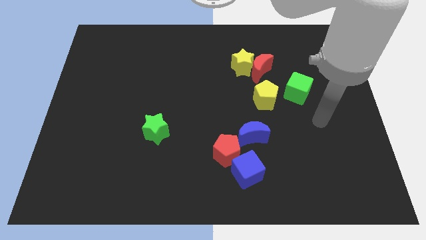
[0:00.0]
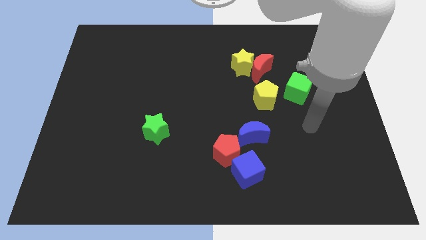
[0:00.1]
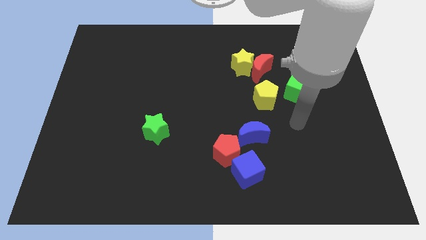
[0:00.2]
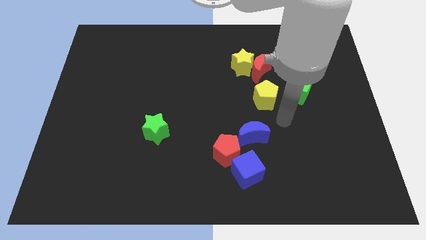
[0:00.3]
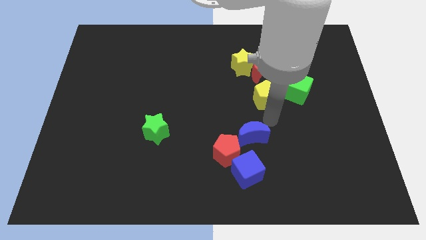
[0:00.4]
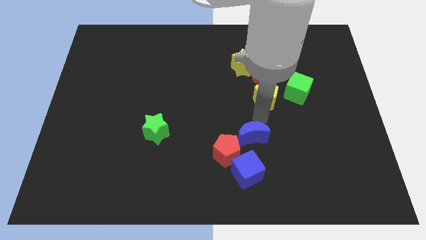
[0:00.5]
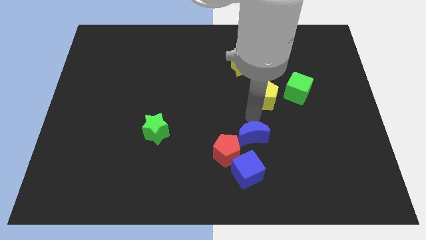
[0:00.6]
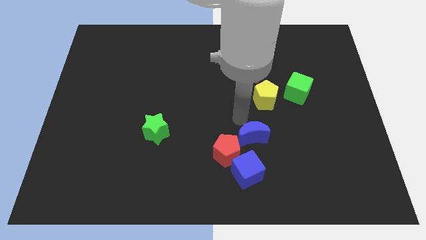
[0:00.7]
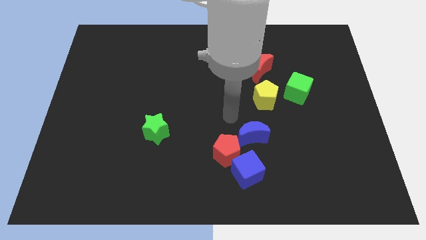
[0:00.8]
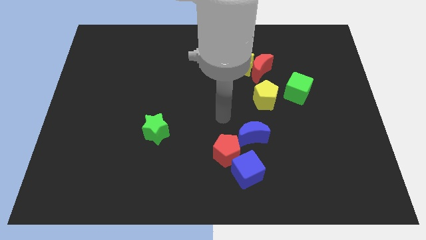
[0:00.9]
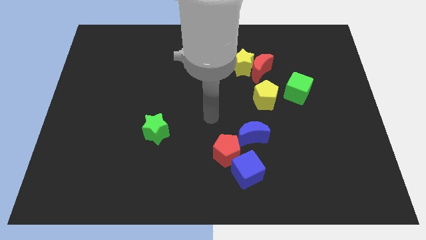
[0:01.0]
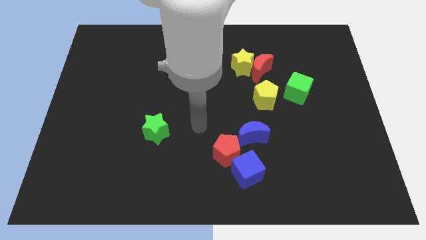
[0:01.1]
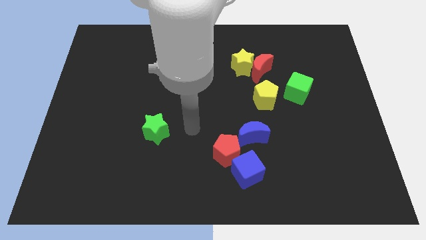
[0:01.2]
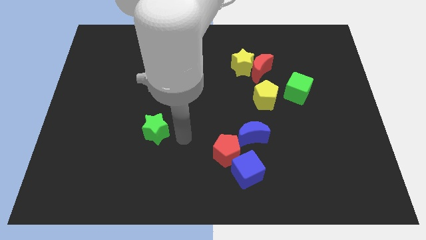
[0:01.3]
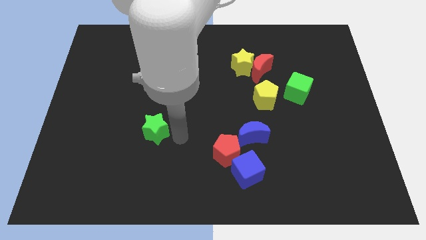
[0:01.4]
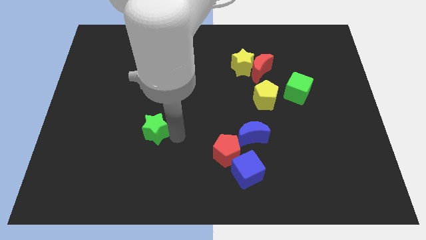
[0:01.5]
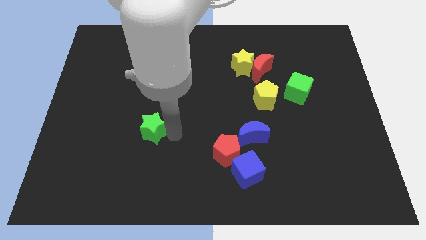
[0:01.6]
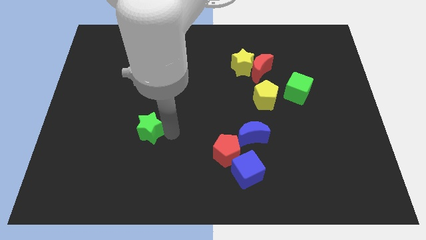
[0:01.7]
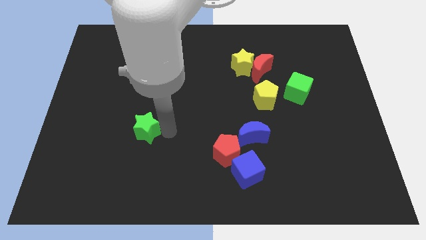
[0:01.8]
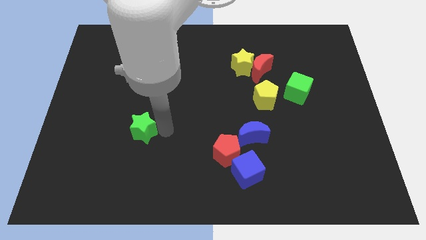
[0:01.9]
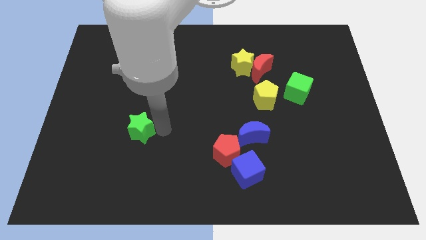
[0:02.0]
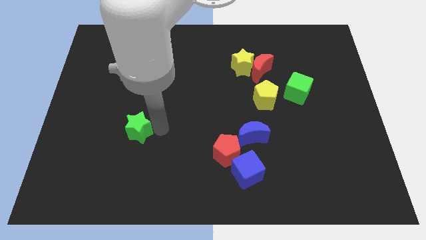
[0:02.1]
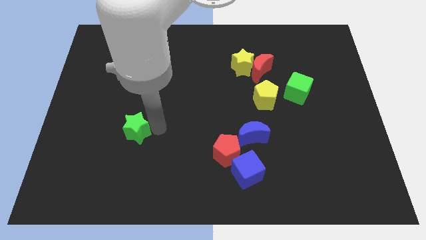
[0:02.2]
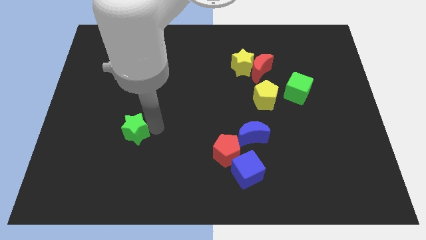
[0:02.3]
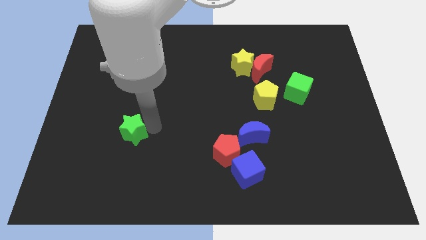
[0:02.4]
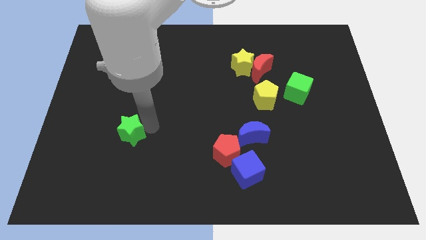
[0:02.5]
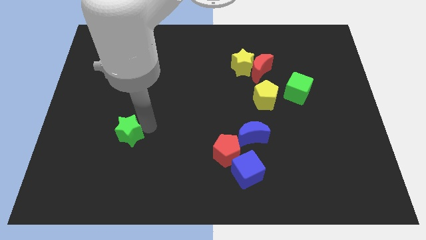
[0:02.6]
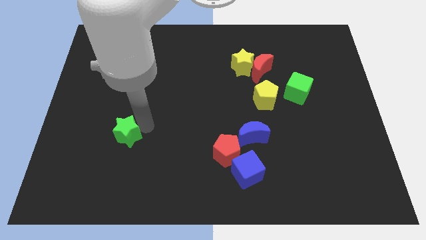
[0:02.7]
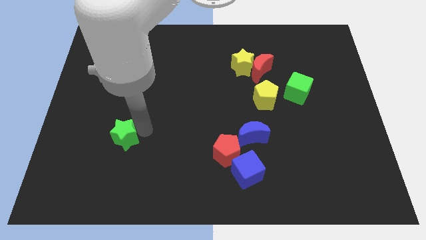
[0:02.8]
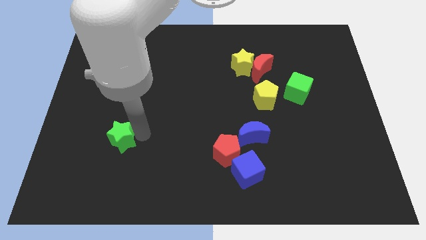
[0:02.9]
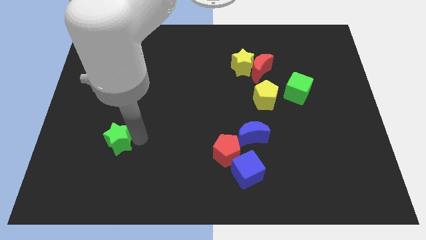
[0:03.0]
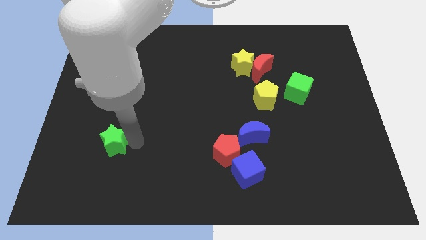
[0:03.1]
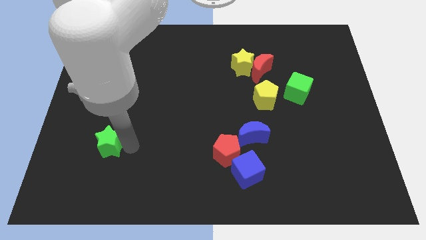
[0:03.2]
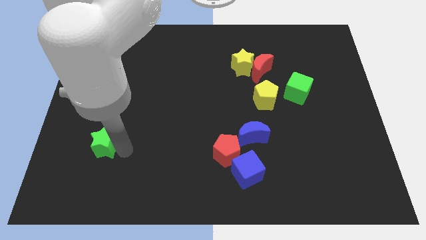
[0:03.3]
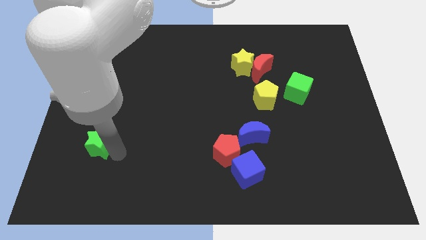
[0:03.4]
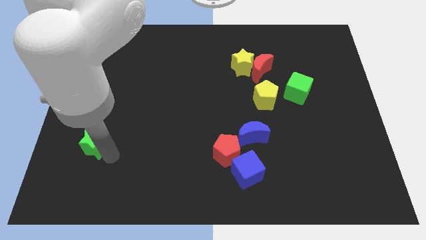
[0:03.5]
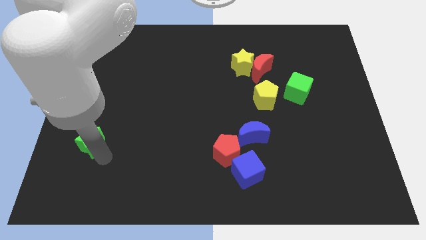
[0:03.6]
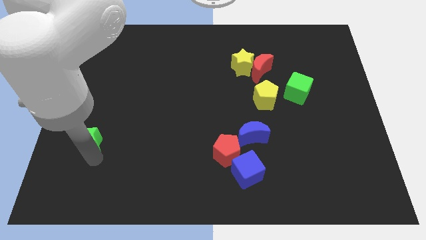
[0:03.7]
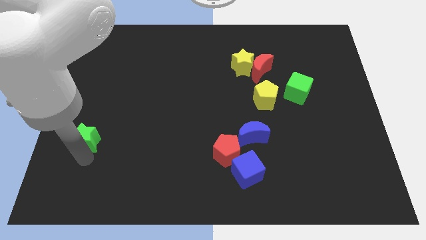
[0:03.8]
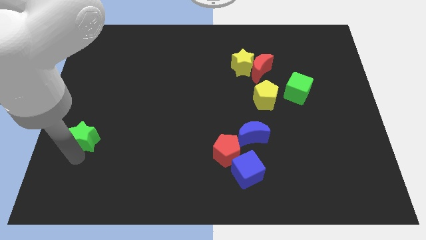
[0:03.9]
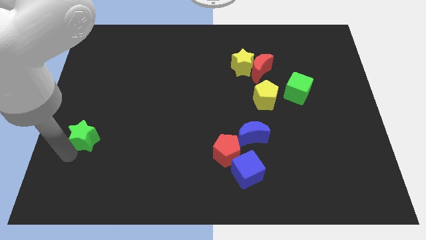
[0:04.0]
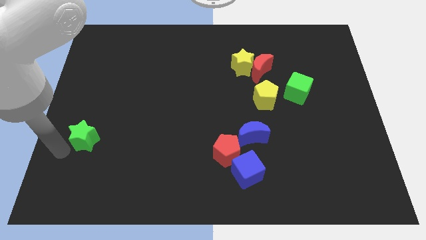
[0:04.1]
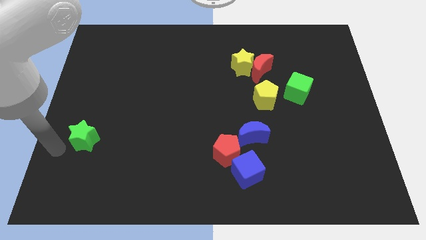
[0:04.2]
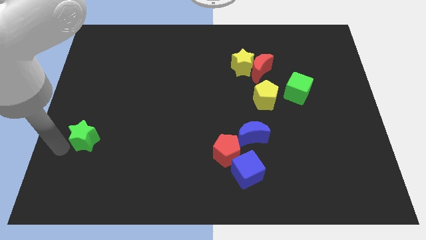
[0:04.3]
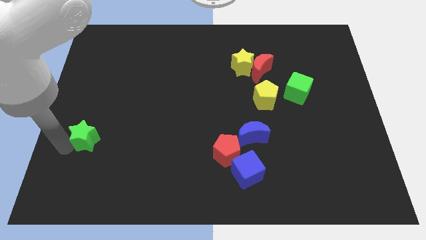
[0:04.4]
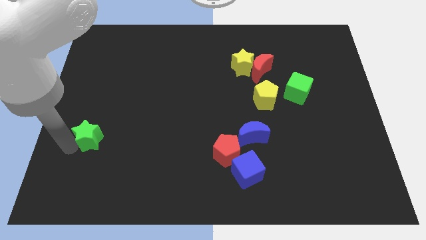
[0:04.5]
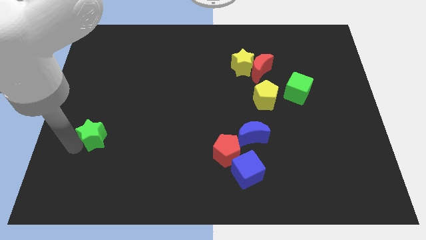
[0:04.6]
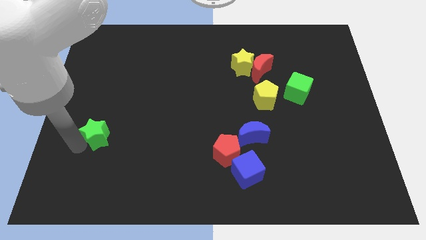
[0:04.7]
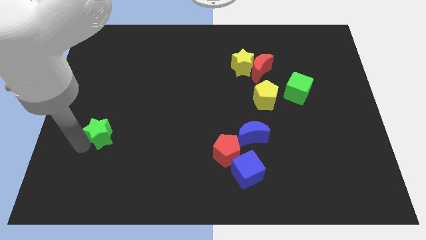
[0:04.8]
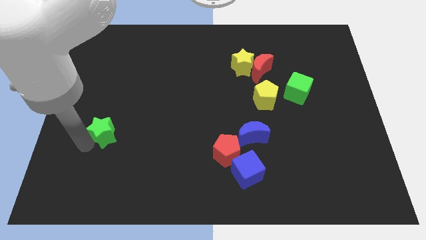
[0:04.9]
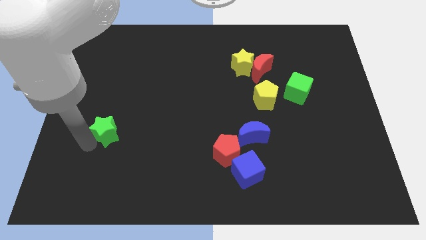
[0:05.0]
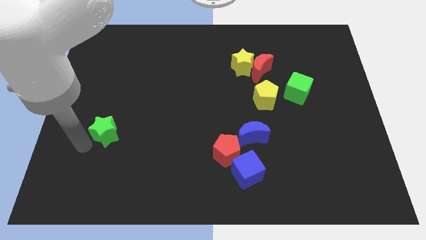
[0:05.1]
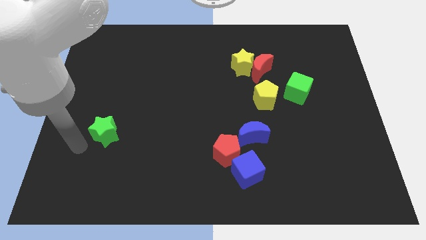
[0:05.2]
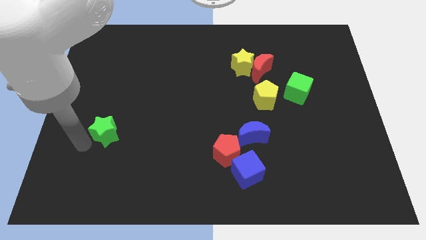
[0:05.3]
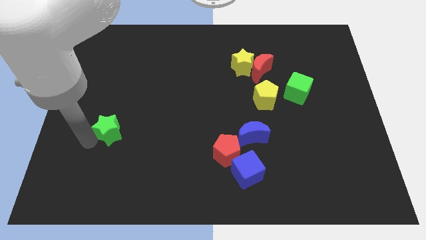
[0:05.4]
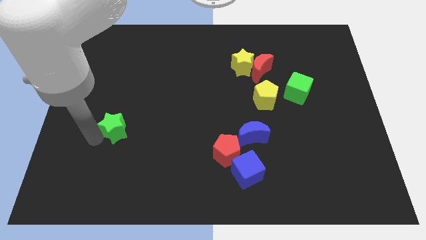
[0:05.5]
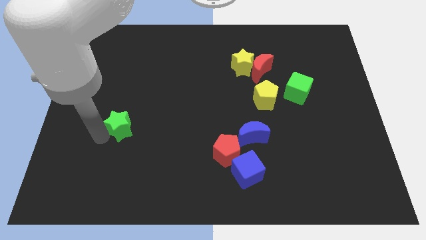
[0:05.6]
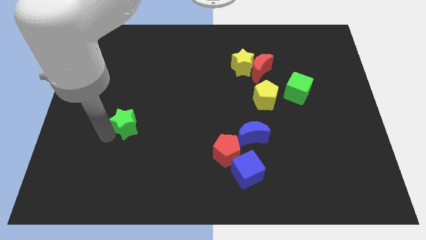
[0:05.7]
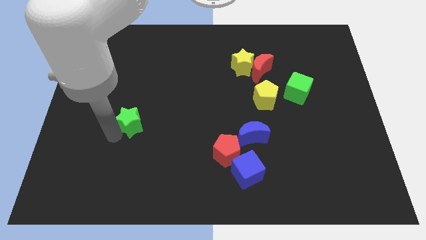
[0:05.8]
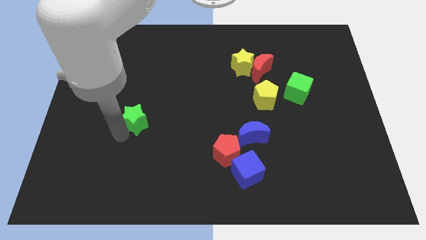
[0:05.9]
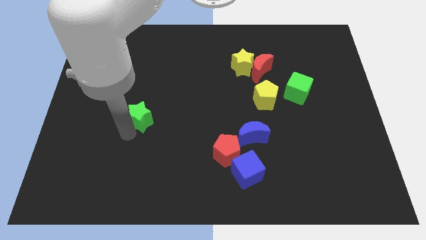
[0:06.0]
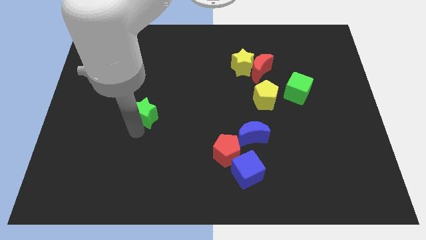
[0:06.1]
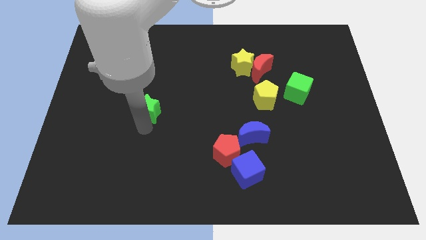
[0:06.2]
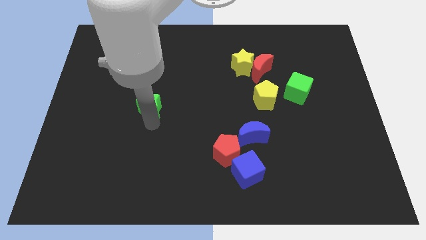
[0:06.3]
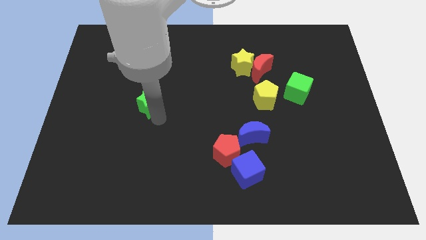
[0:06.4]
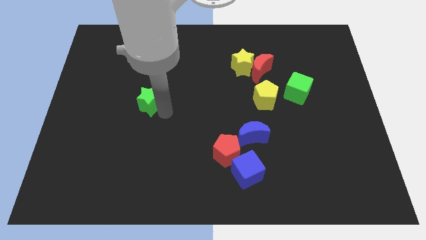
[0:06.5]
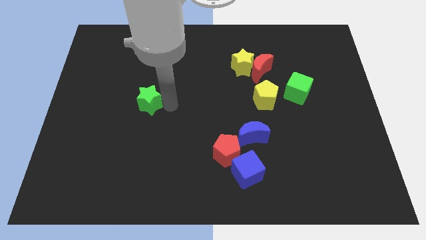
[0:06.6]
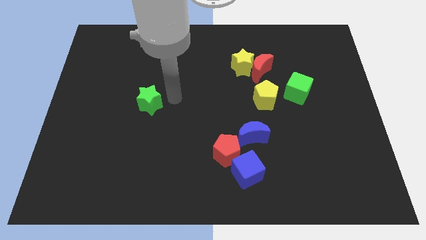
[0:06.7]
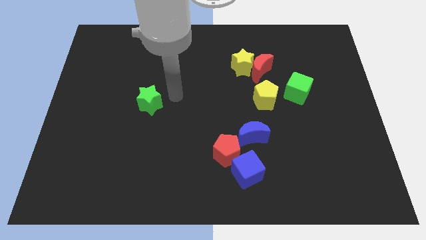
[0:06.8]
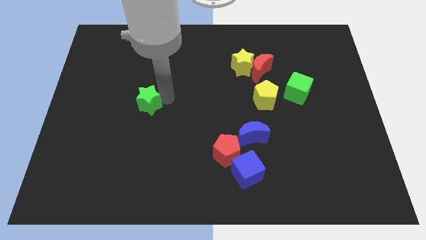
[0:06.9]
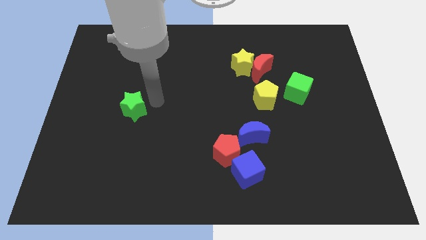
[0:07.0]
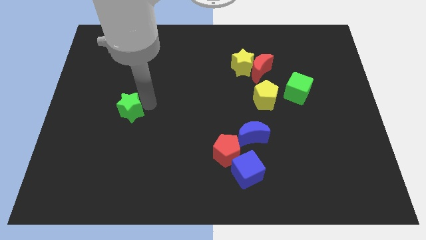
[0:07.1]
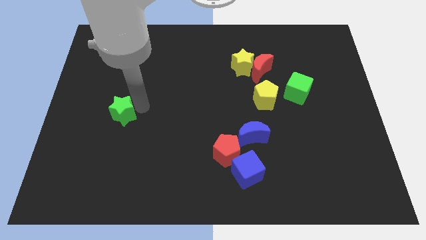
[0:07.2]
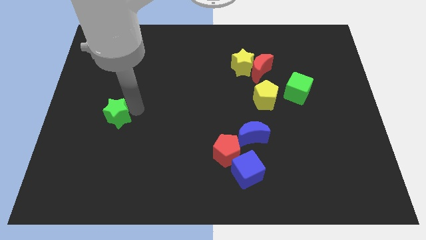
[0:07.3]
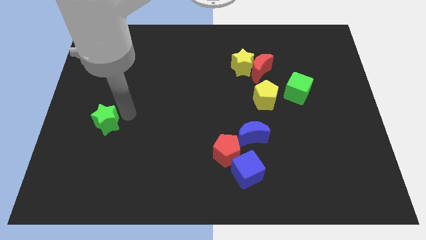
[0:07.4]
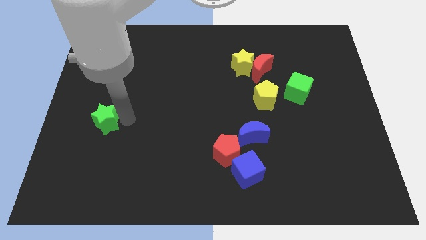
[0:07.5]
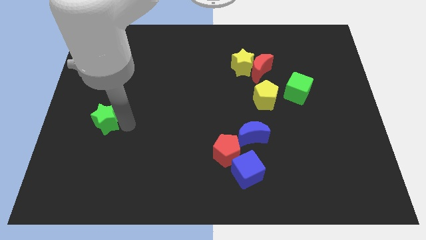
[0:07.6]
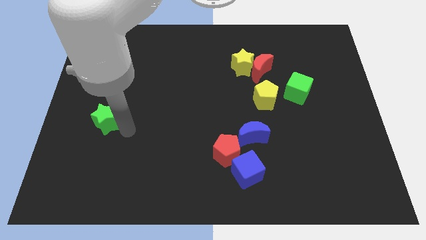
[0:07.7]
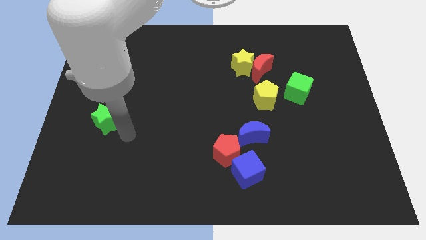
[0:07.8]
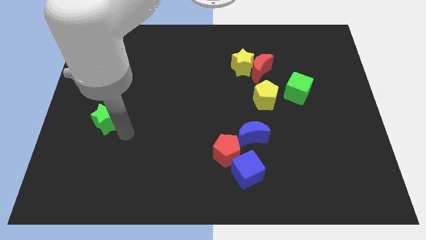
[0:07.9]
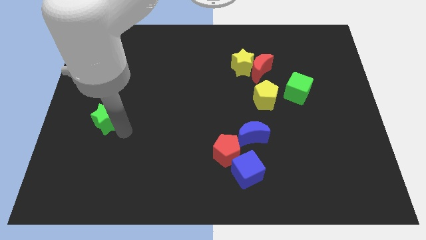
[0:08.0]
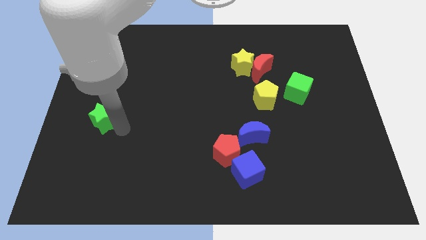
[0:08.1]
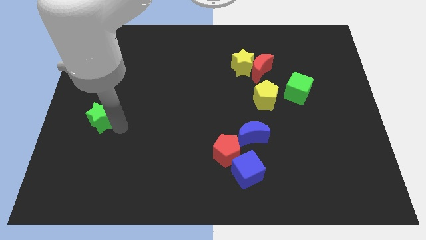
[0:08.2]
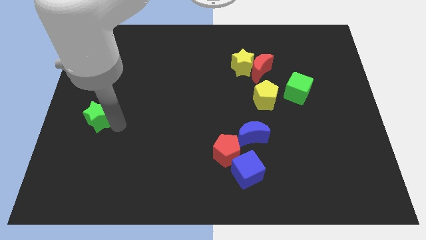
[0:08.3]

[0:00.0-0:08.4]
move the green star to the left side of the board
